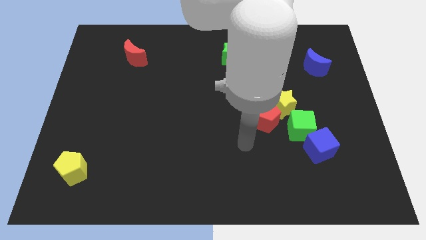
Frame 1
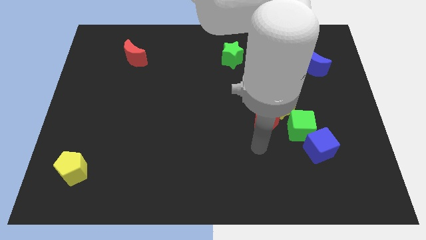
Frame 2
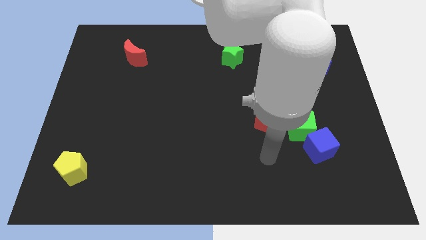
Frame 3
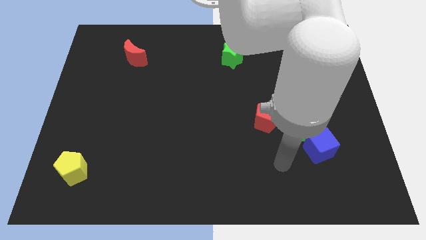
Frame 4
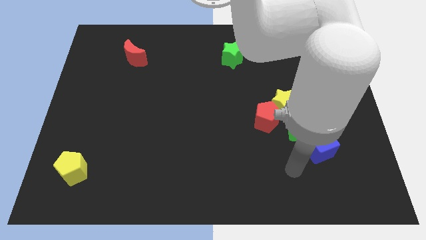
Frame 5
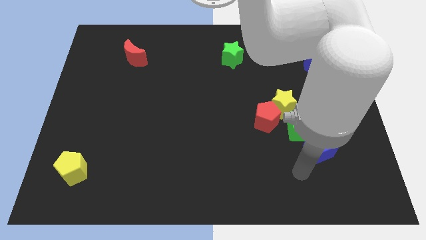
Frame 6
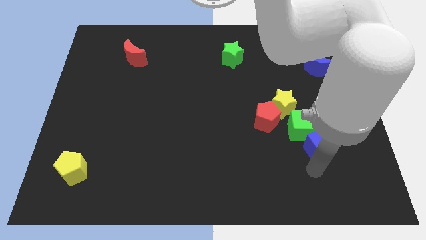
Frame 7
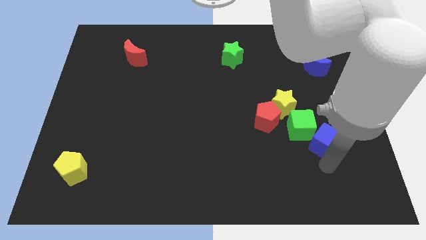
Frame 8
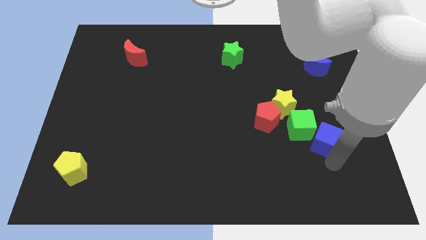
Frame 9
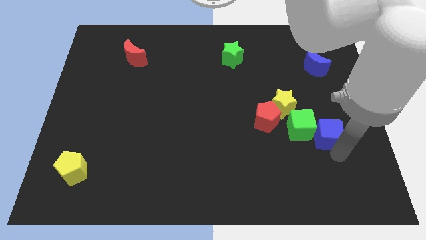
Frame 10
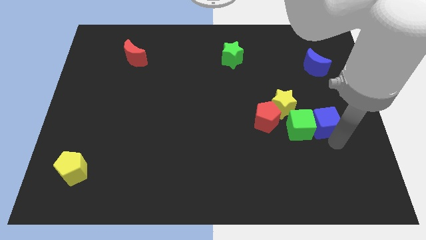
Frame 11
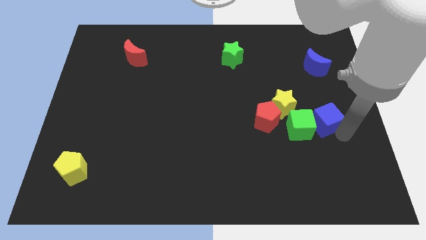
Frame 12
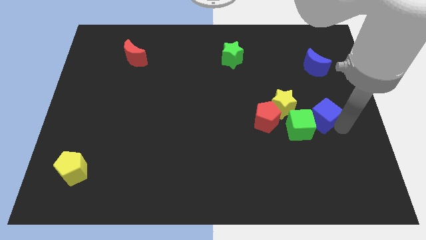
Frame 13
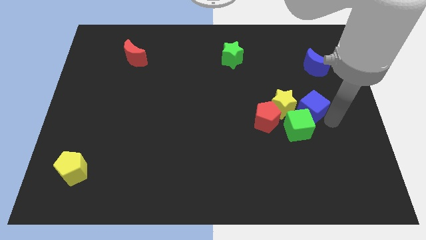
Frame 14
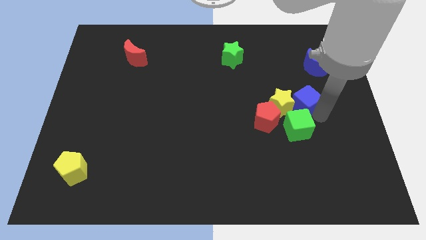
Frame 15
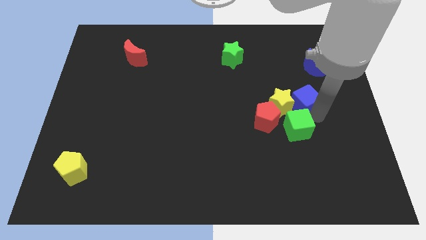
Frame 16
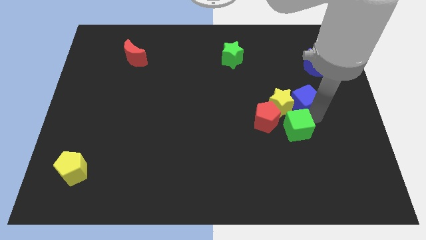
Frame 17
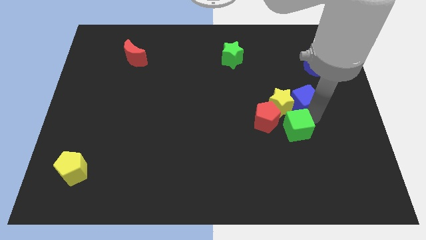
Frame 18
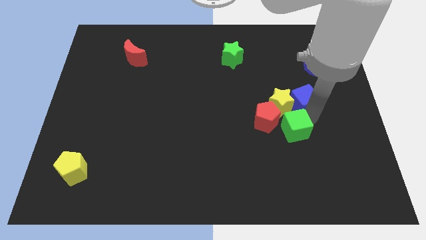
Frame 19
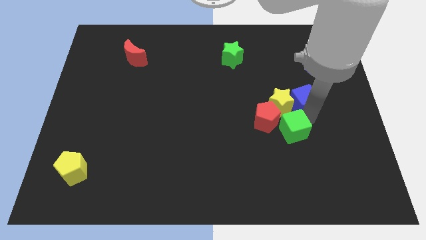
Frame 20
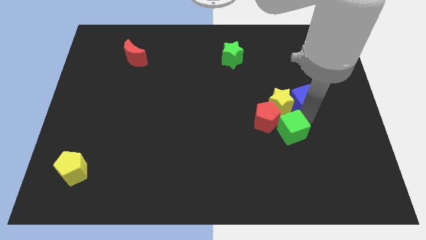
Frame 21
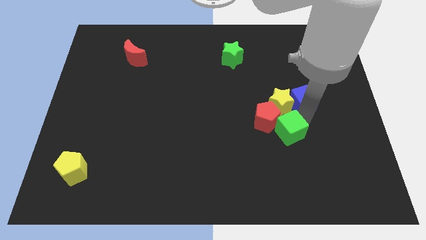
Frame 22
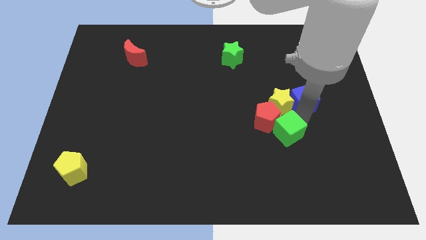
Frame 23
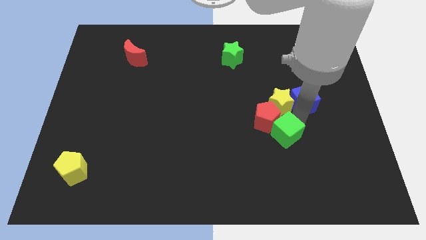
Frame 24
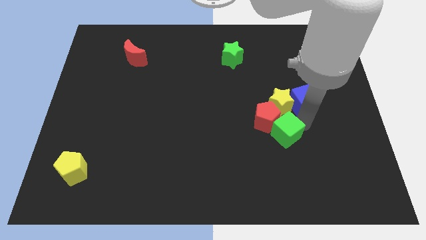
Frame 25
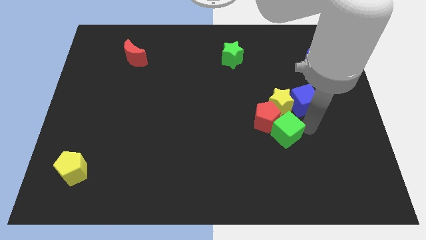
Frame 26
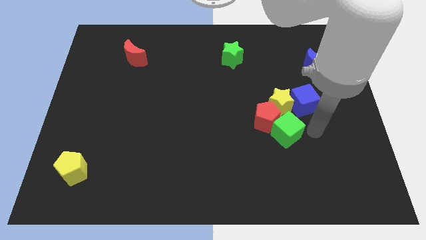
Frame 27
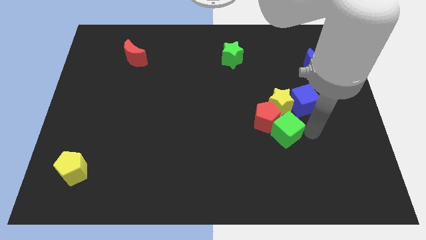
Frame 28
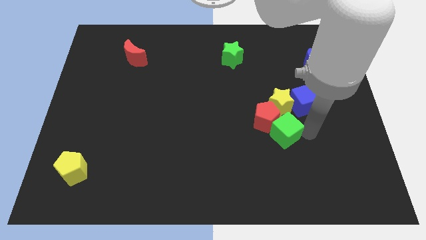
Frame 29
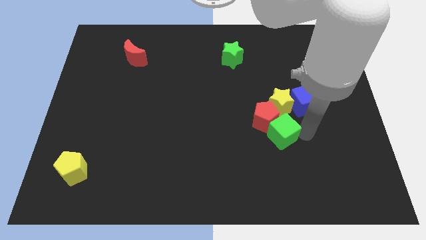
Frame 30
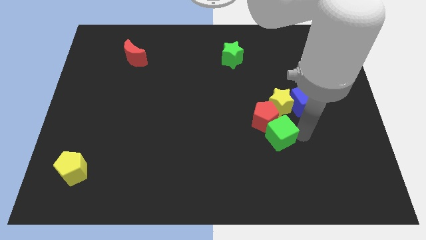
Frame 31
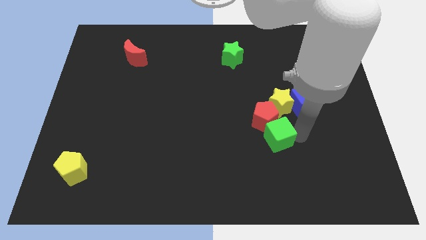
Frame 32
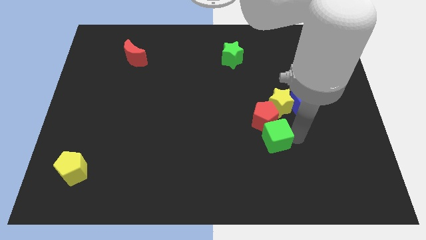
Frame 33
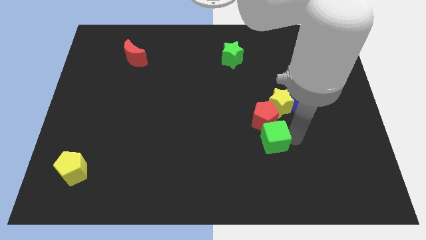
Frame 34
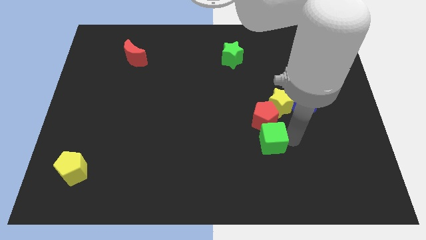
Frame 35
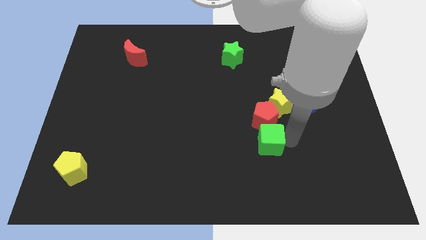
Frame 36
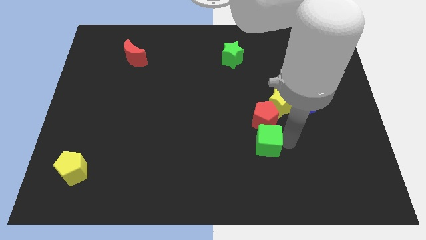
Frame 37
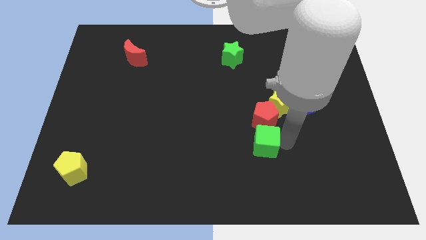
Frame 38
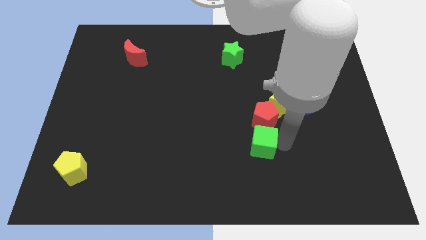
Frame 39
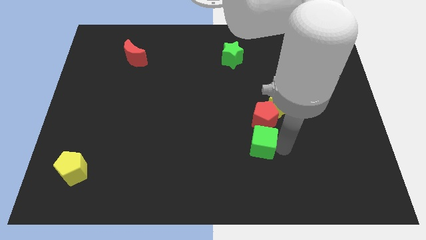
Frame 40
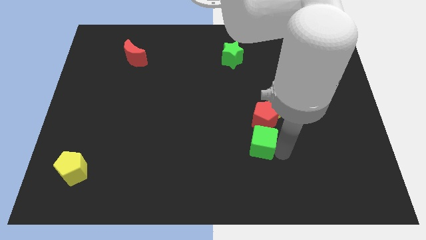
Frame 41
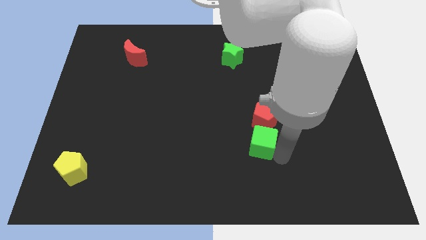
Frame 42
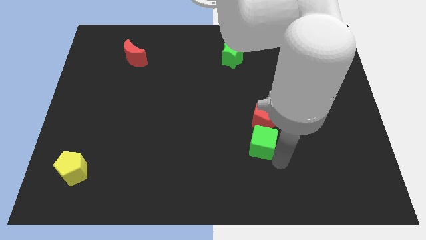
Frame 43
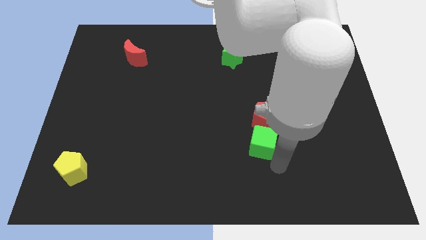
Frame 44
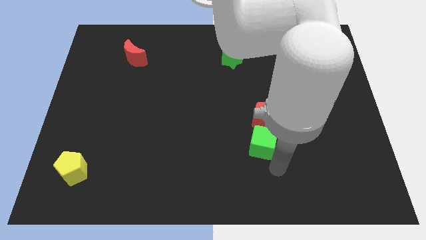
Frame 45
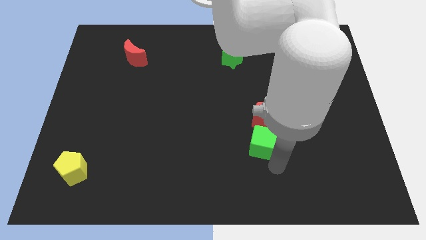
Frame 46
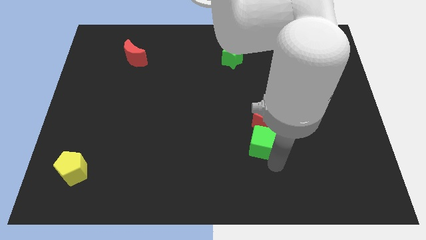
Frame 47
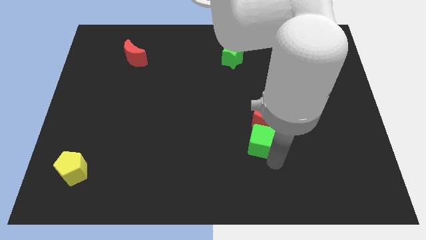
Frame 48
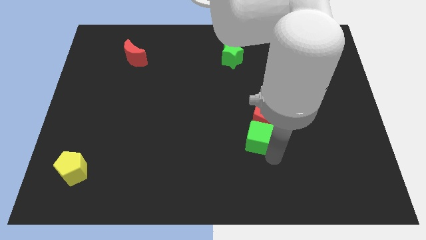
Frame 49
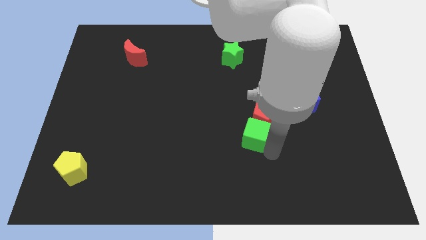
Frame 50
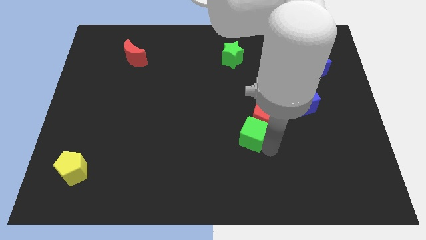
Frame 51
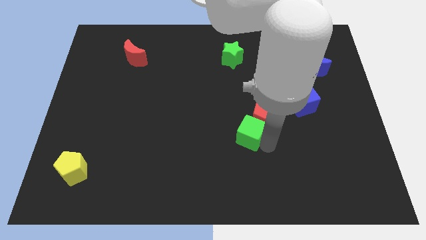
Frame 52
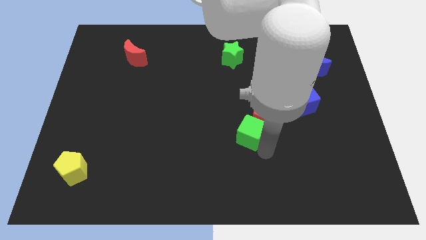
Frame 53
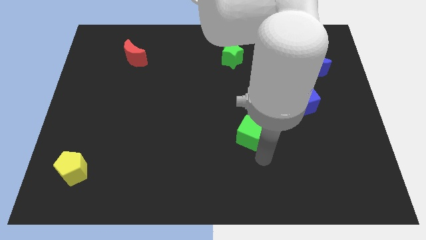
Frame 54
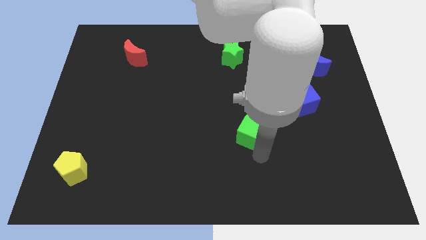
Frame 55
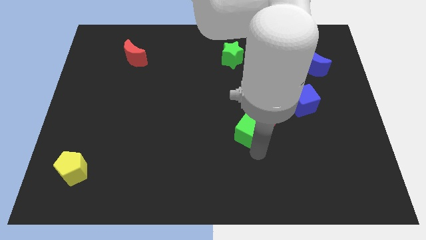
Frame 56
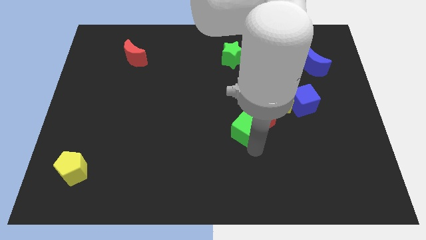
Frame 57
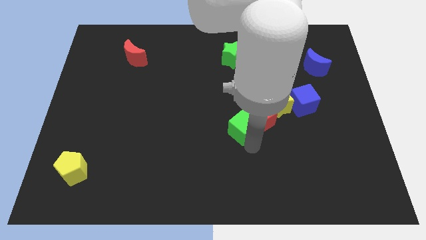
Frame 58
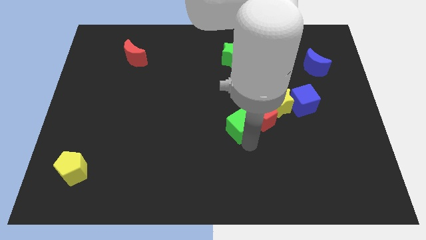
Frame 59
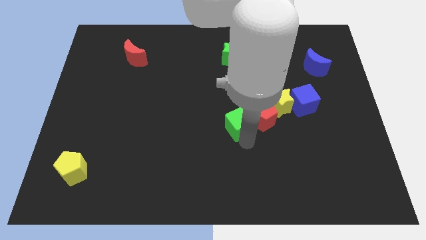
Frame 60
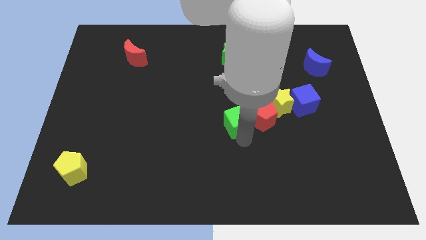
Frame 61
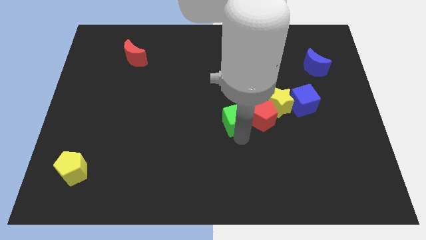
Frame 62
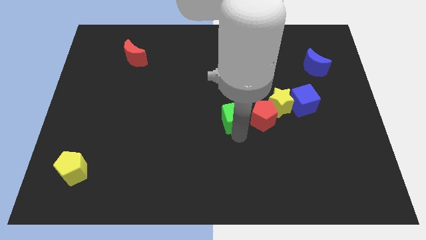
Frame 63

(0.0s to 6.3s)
push the green cube just left of the yellow star

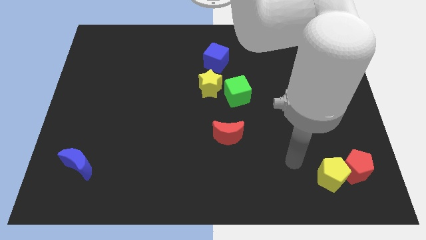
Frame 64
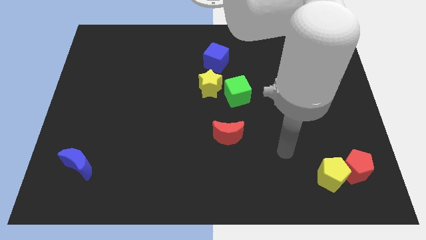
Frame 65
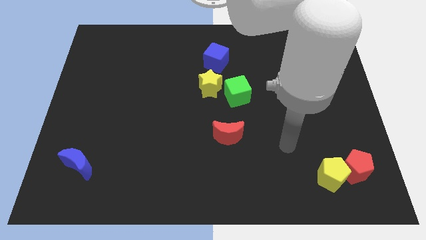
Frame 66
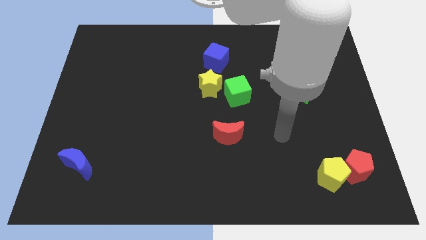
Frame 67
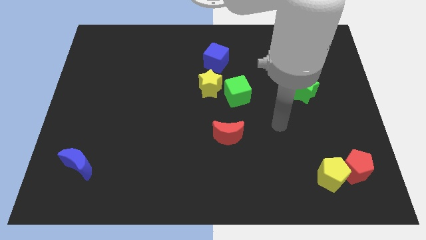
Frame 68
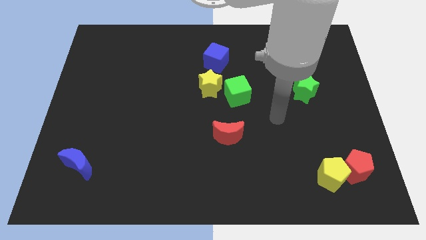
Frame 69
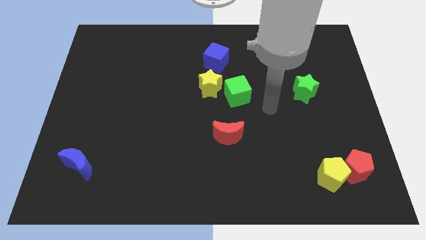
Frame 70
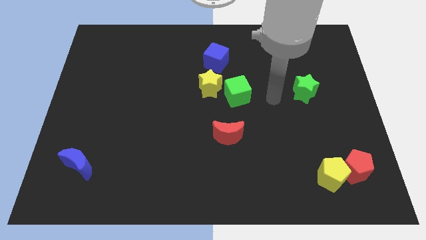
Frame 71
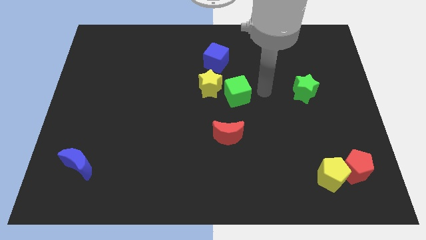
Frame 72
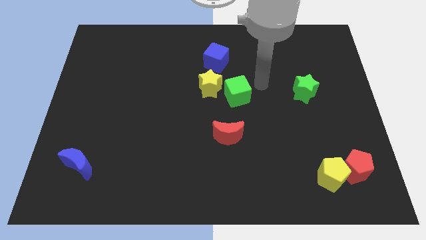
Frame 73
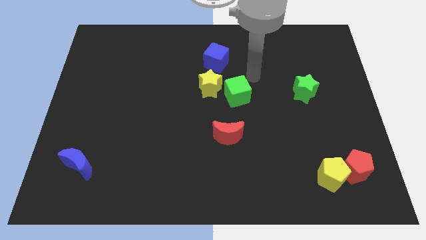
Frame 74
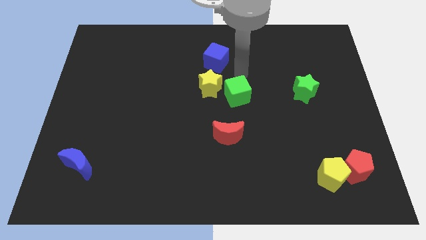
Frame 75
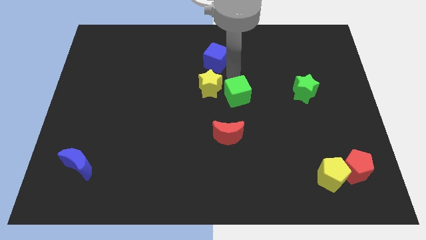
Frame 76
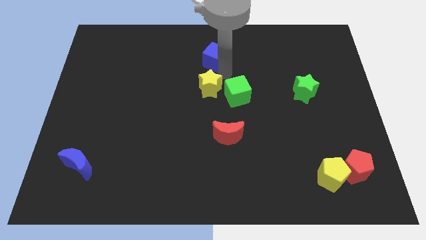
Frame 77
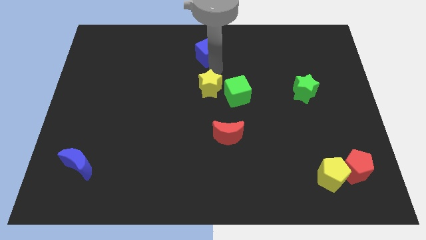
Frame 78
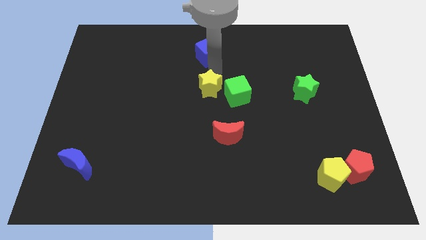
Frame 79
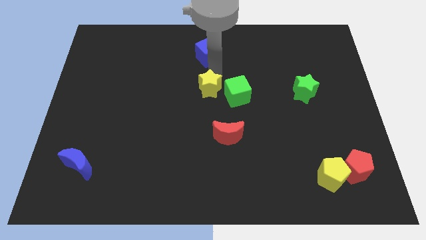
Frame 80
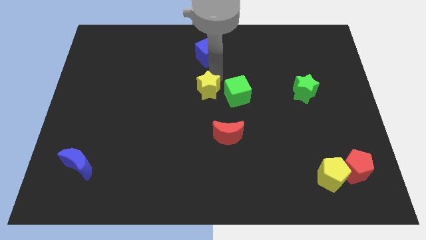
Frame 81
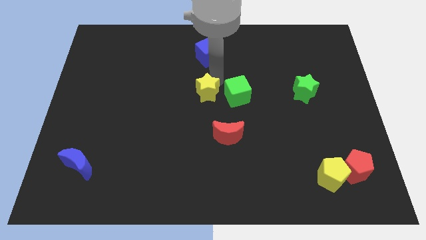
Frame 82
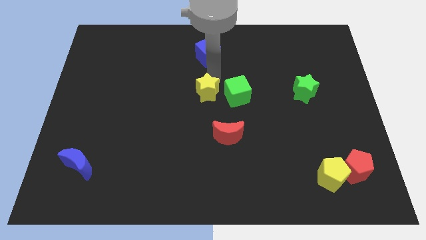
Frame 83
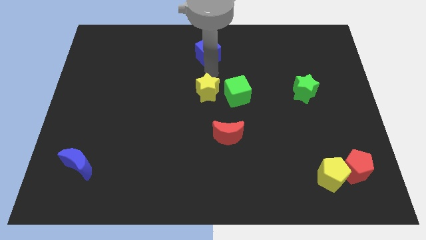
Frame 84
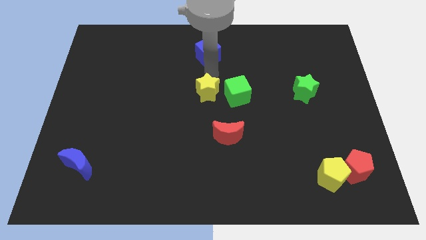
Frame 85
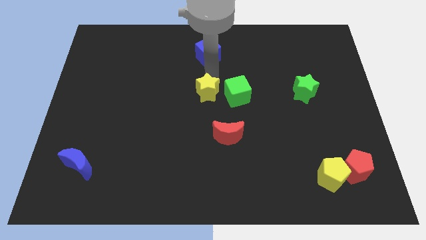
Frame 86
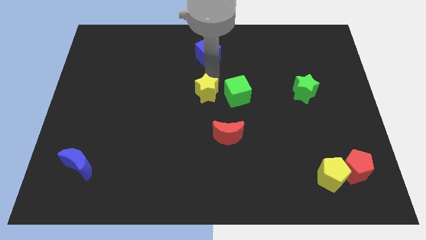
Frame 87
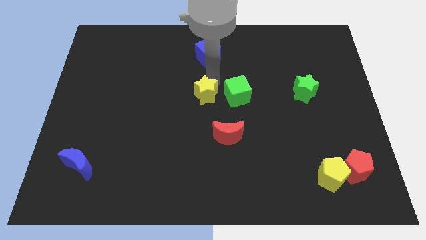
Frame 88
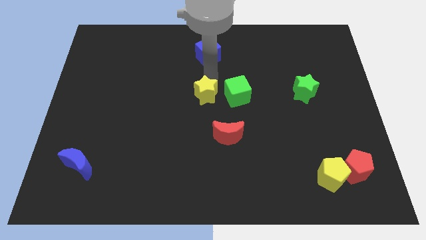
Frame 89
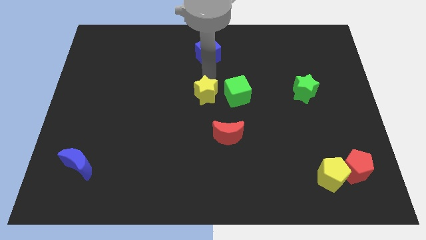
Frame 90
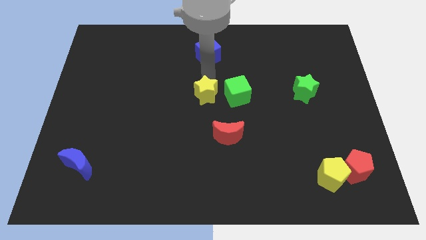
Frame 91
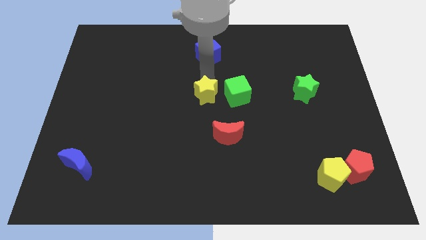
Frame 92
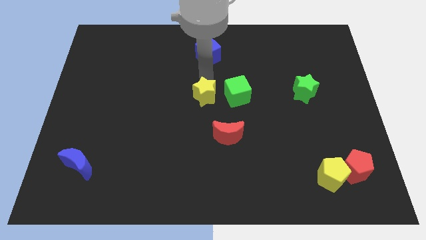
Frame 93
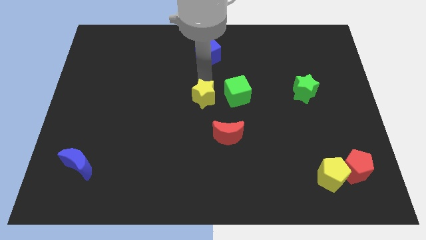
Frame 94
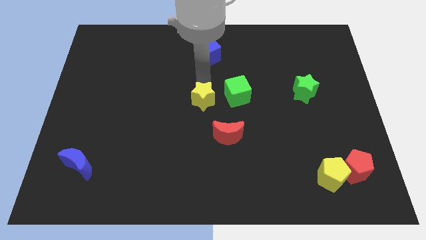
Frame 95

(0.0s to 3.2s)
slide the yellow star to the top left side of the red moon
